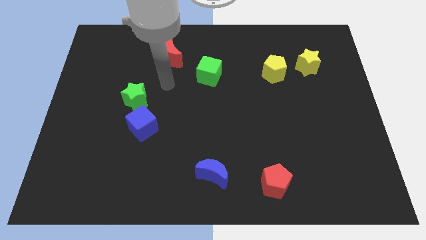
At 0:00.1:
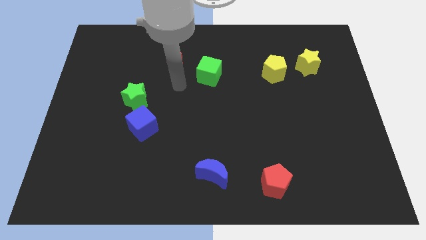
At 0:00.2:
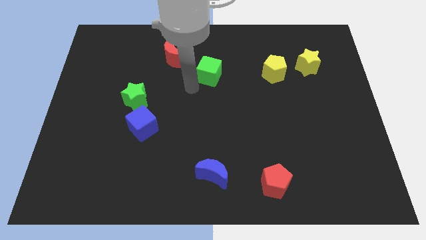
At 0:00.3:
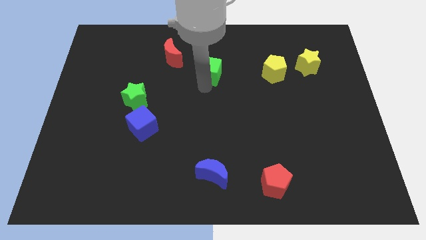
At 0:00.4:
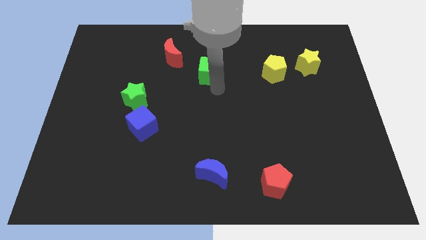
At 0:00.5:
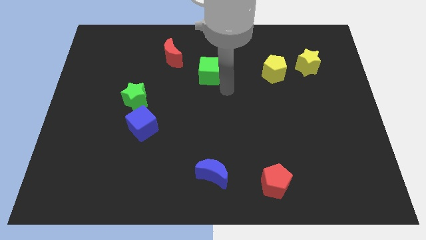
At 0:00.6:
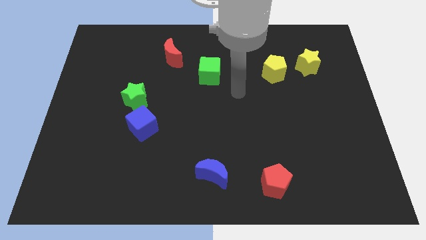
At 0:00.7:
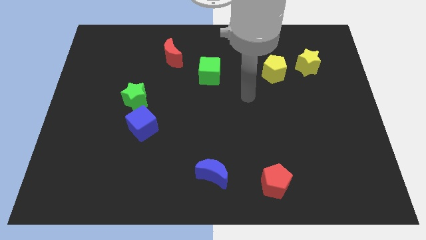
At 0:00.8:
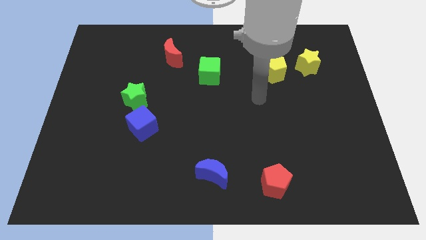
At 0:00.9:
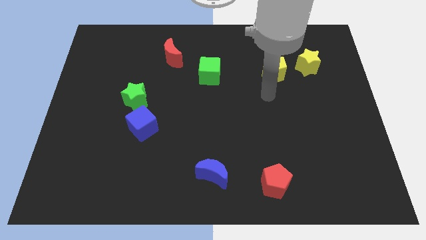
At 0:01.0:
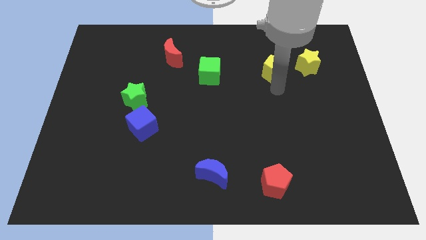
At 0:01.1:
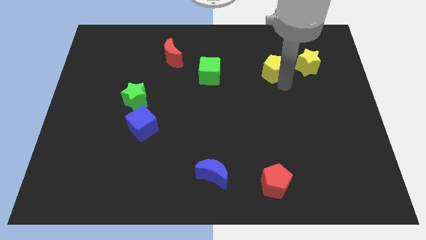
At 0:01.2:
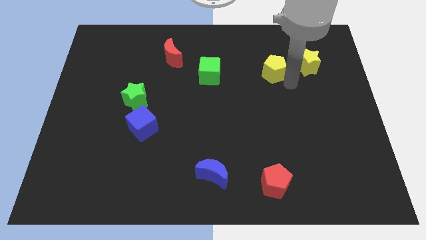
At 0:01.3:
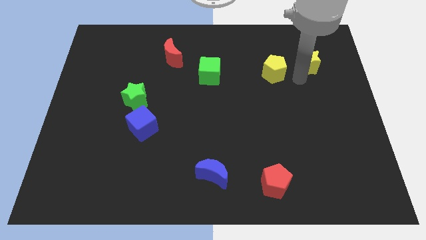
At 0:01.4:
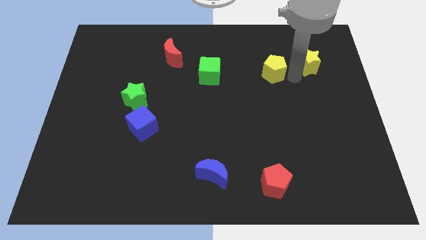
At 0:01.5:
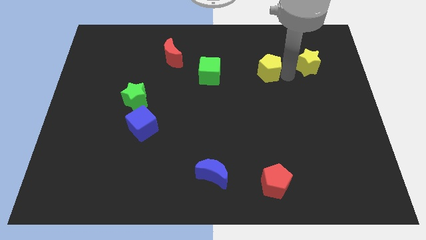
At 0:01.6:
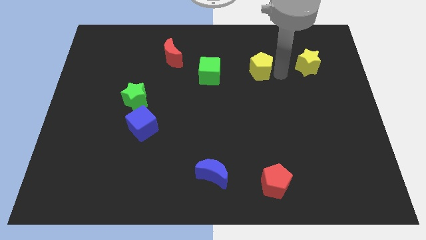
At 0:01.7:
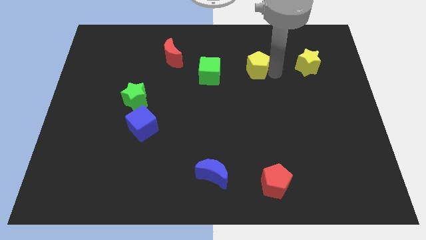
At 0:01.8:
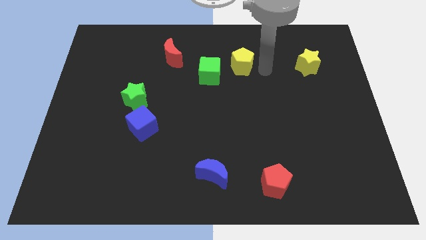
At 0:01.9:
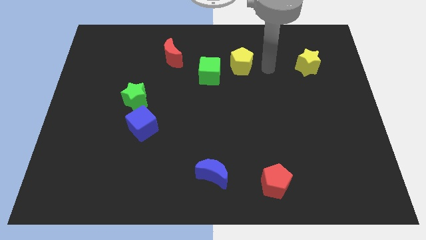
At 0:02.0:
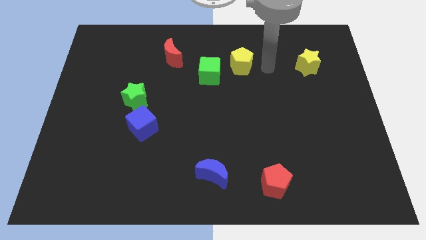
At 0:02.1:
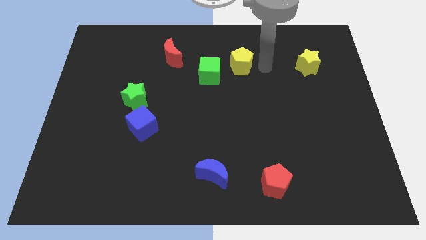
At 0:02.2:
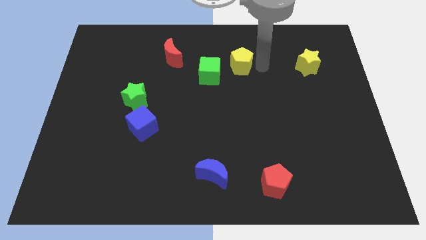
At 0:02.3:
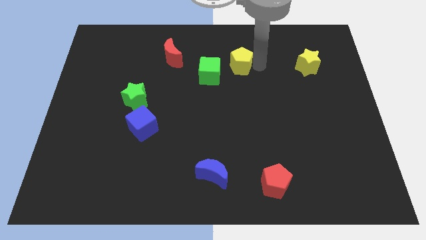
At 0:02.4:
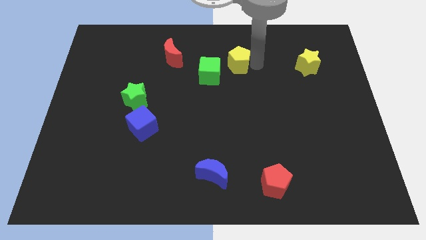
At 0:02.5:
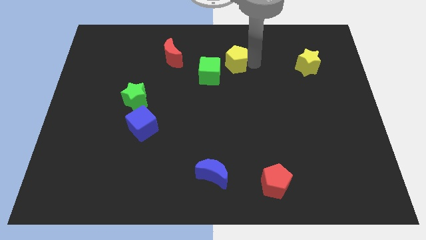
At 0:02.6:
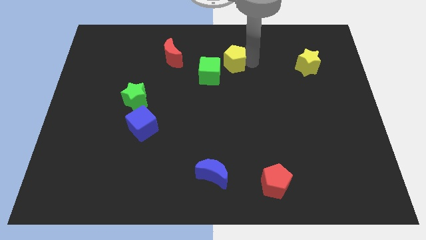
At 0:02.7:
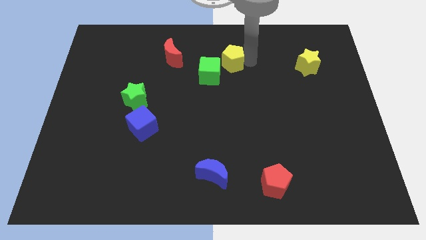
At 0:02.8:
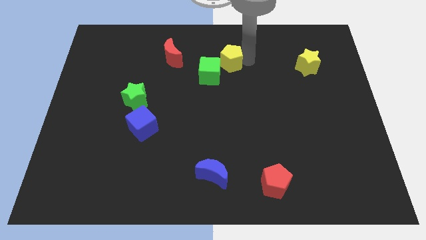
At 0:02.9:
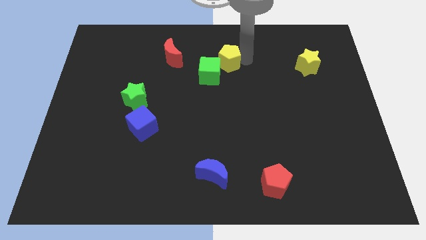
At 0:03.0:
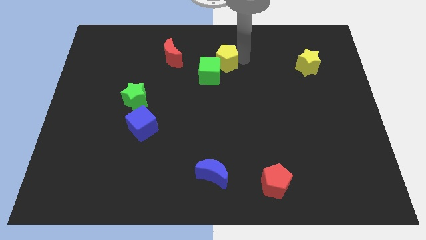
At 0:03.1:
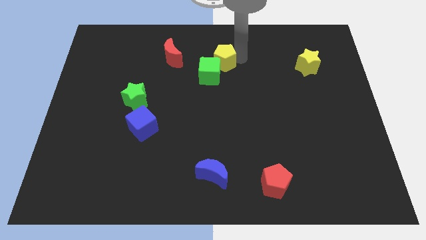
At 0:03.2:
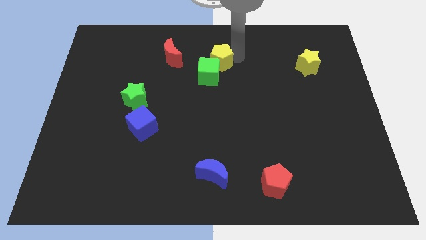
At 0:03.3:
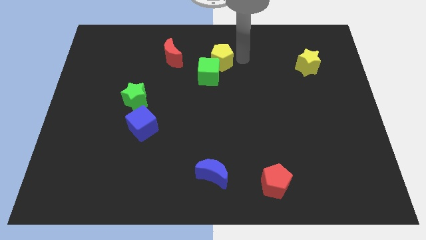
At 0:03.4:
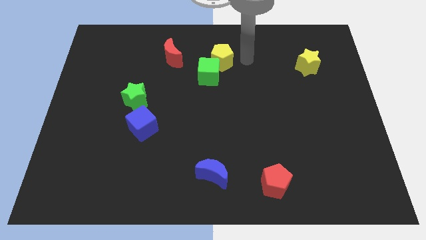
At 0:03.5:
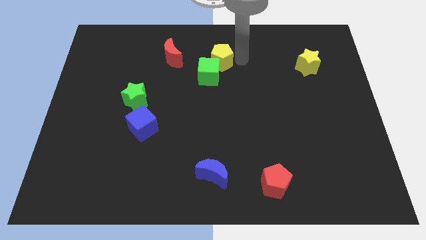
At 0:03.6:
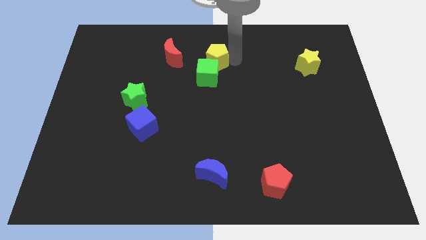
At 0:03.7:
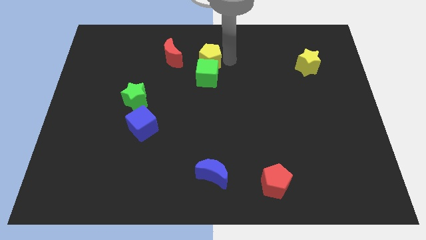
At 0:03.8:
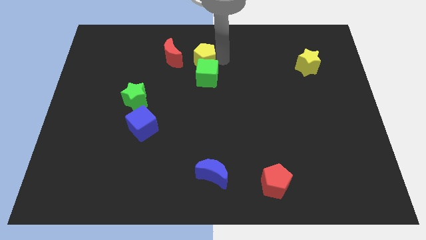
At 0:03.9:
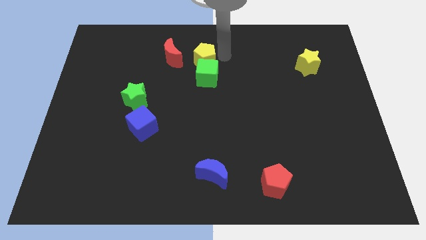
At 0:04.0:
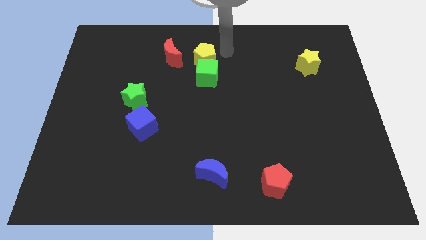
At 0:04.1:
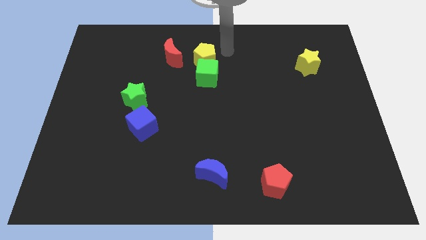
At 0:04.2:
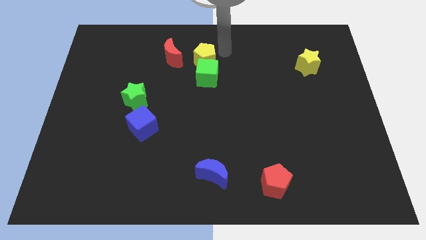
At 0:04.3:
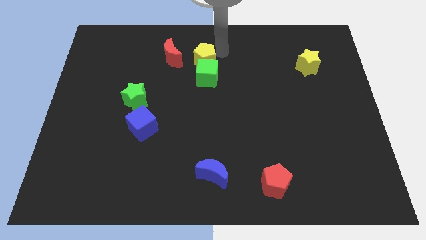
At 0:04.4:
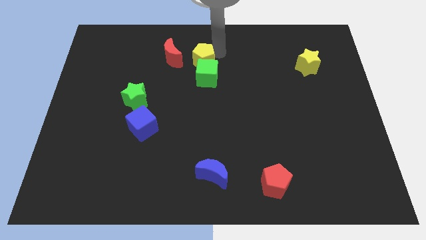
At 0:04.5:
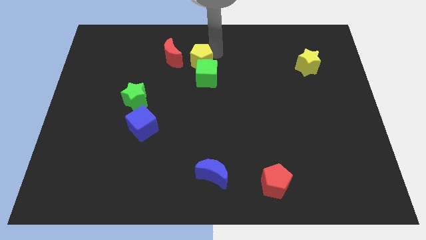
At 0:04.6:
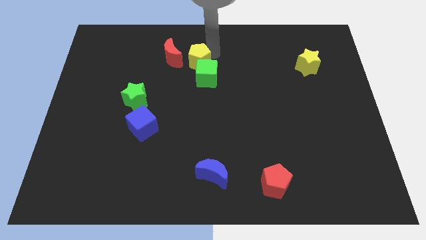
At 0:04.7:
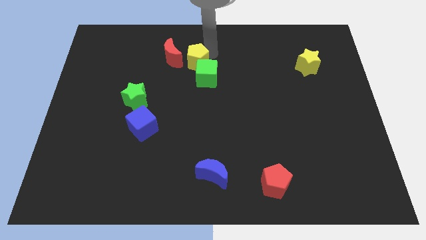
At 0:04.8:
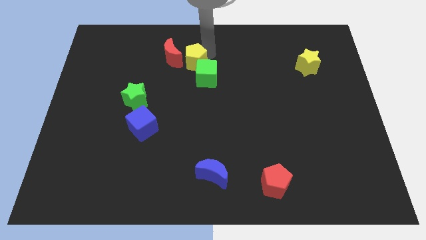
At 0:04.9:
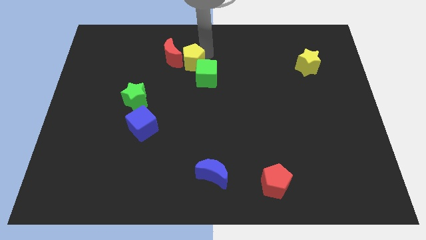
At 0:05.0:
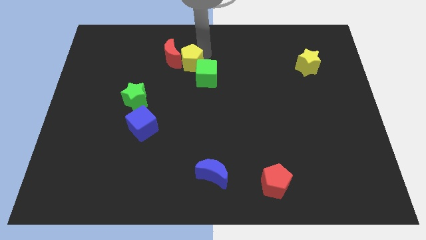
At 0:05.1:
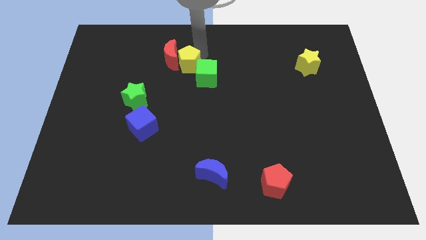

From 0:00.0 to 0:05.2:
move the yellow pentagon left of the green cube

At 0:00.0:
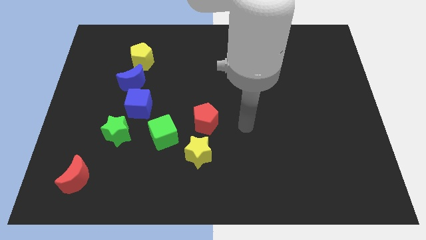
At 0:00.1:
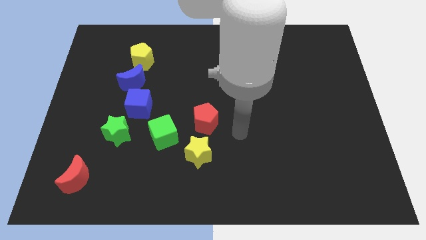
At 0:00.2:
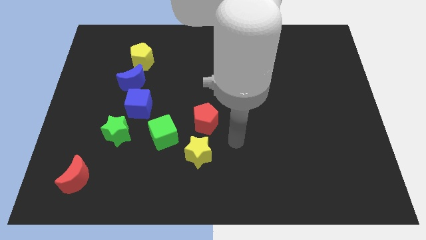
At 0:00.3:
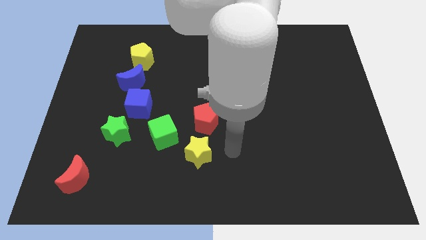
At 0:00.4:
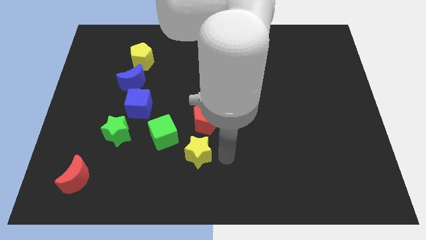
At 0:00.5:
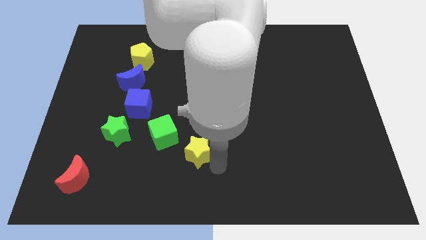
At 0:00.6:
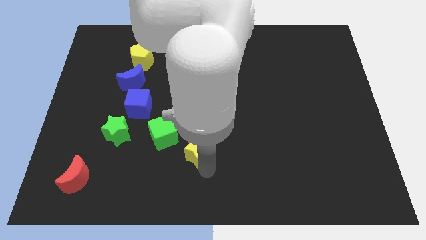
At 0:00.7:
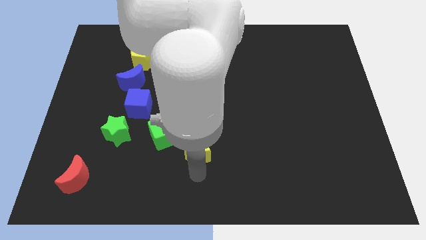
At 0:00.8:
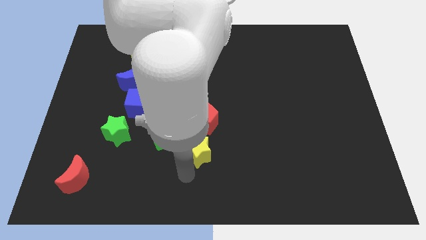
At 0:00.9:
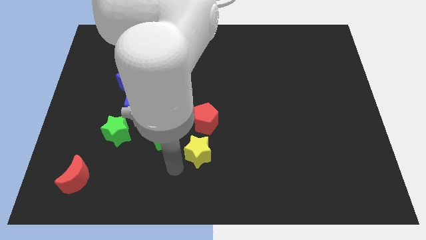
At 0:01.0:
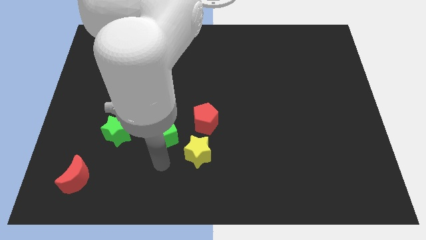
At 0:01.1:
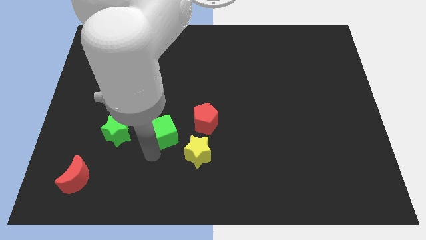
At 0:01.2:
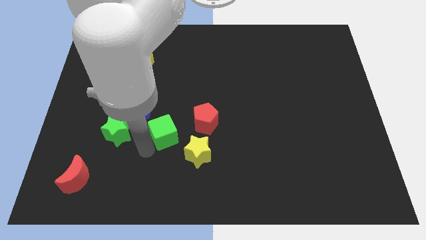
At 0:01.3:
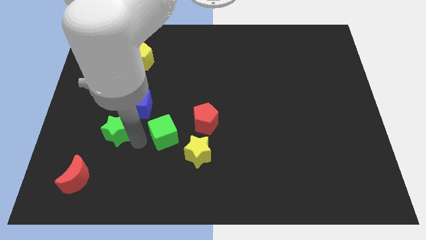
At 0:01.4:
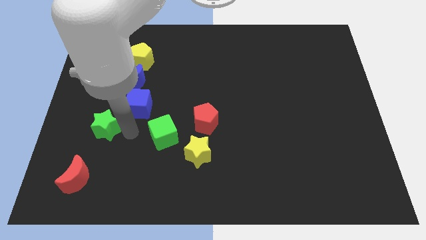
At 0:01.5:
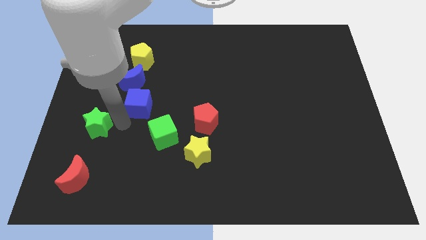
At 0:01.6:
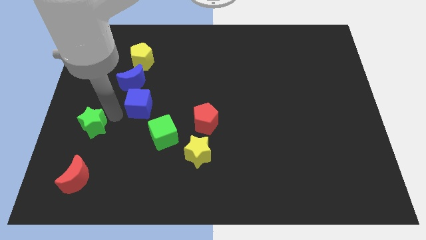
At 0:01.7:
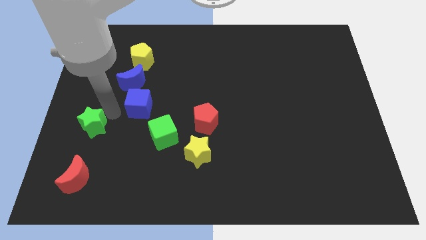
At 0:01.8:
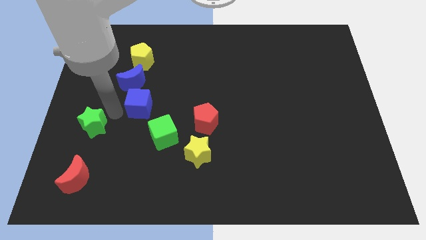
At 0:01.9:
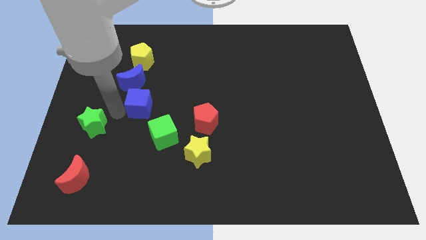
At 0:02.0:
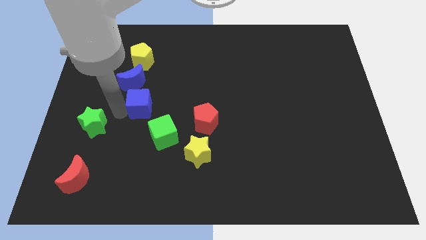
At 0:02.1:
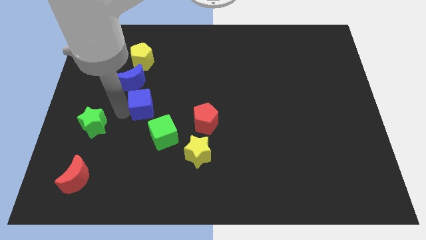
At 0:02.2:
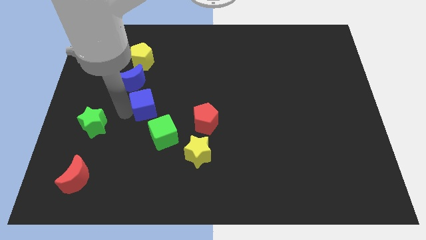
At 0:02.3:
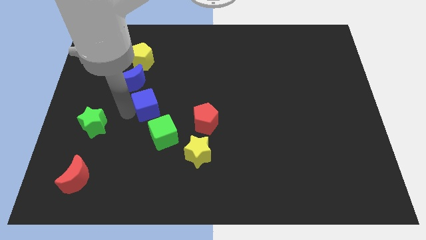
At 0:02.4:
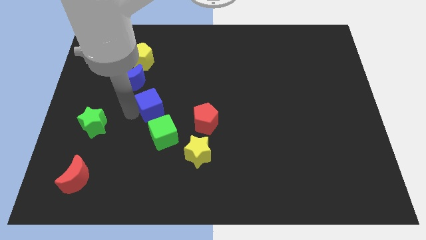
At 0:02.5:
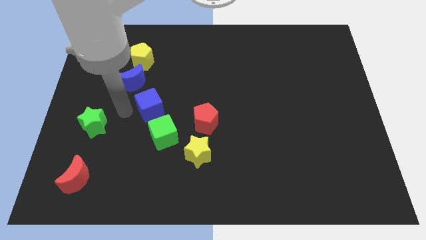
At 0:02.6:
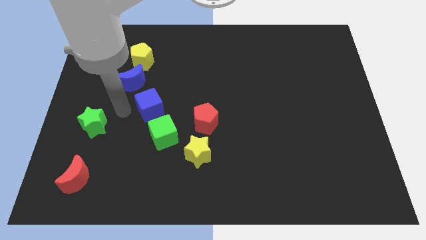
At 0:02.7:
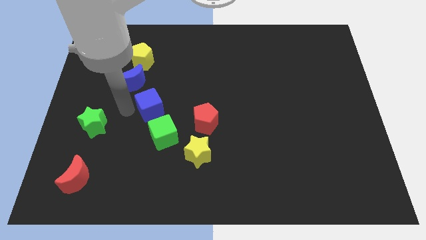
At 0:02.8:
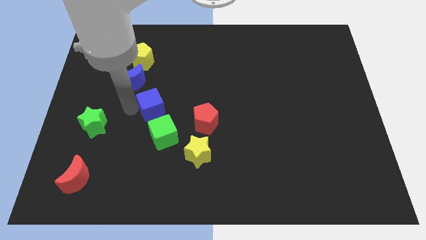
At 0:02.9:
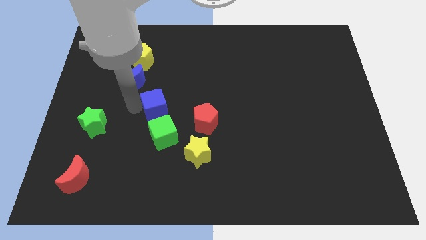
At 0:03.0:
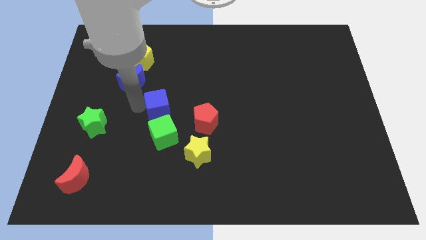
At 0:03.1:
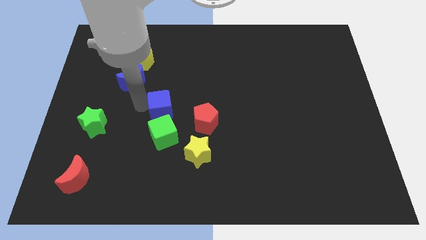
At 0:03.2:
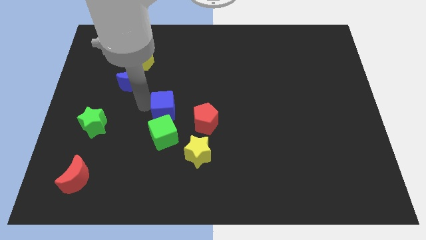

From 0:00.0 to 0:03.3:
move the blue cube diagonally up and to the left of the red pentagon
